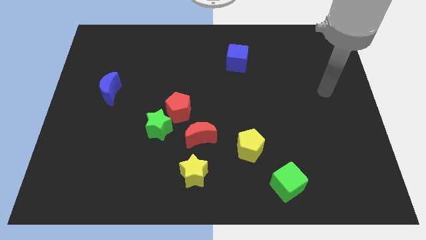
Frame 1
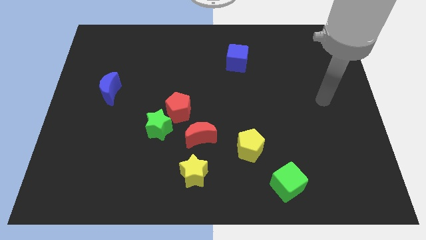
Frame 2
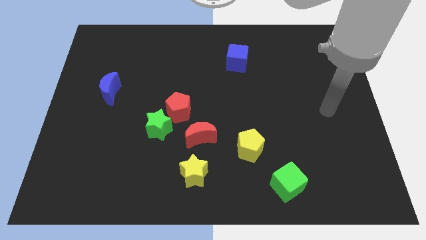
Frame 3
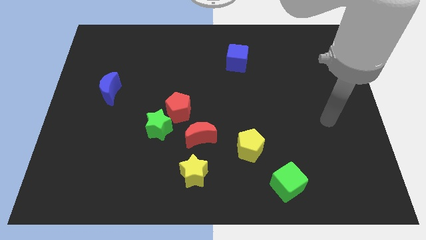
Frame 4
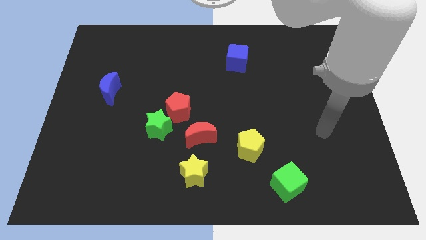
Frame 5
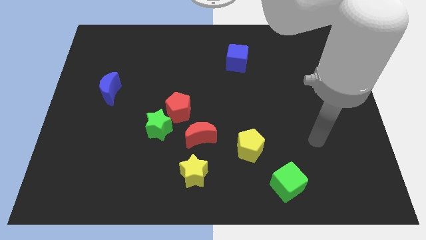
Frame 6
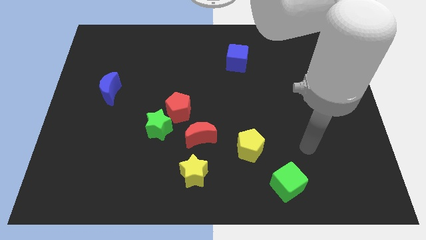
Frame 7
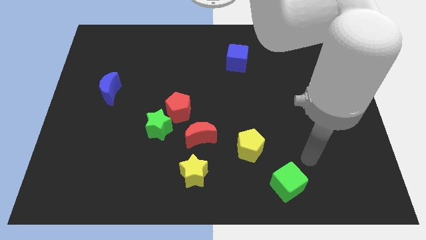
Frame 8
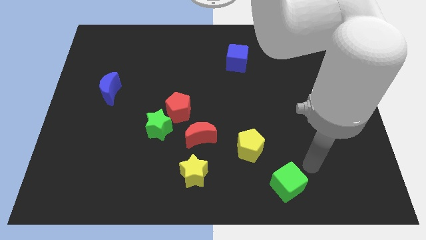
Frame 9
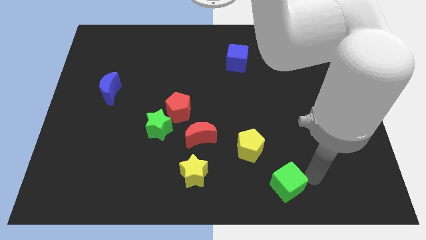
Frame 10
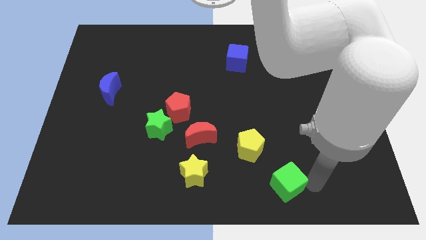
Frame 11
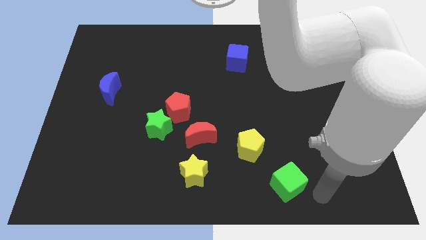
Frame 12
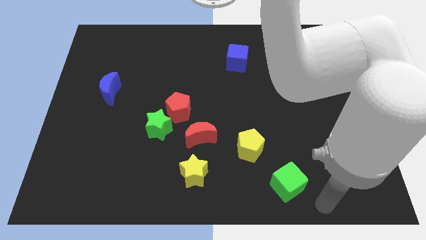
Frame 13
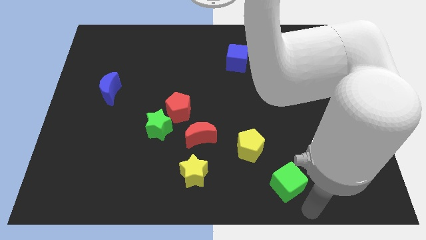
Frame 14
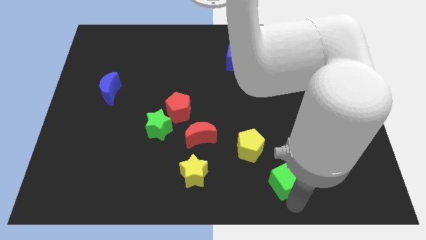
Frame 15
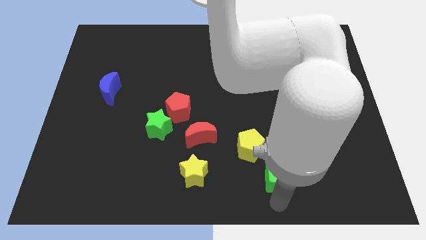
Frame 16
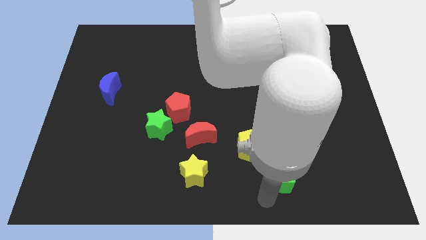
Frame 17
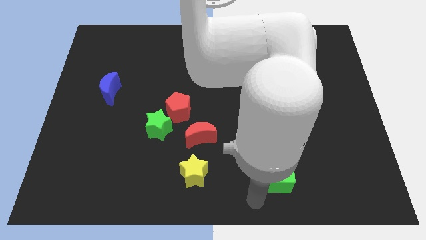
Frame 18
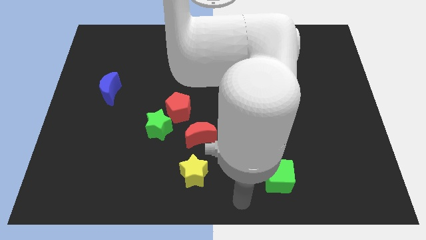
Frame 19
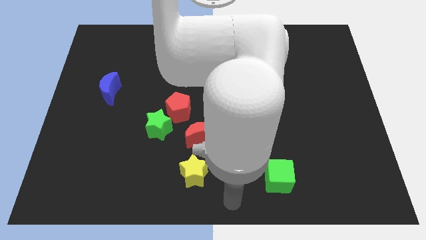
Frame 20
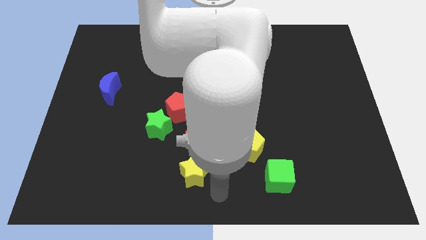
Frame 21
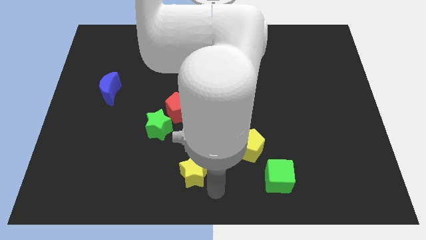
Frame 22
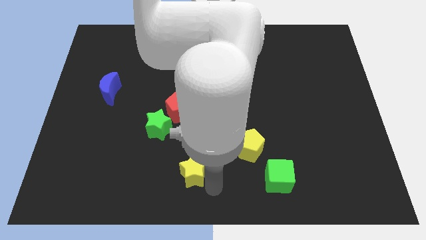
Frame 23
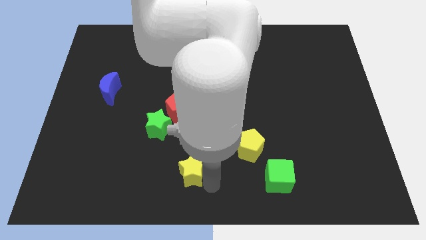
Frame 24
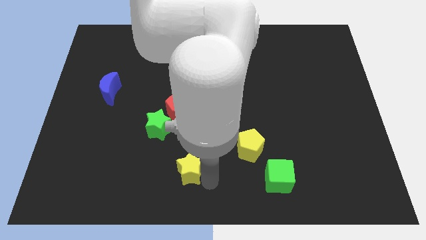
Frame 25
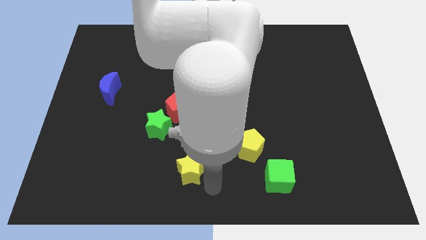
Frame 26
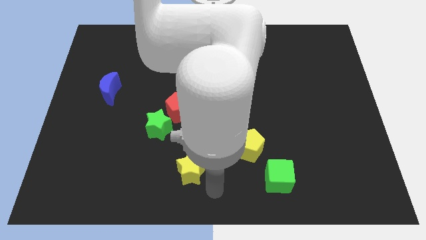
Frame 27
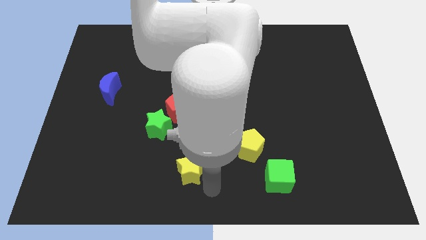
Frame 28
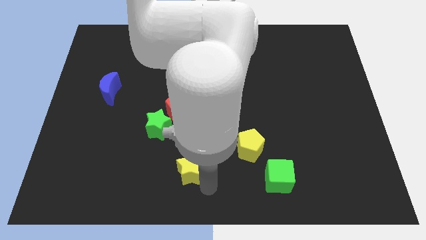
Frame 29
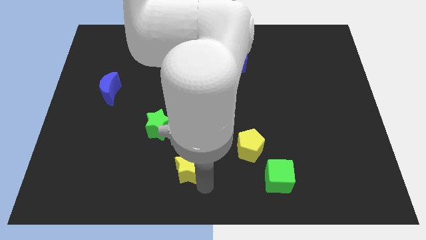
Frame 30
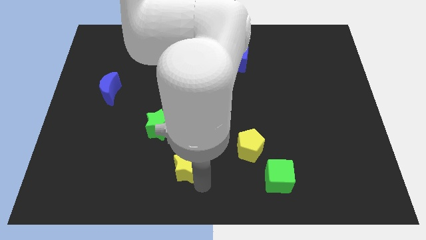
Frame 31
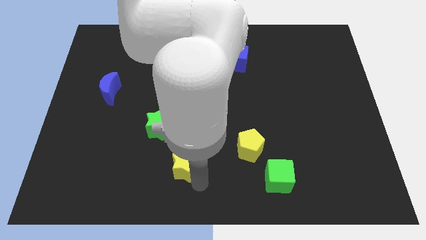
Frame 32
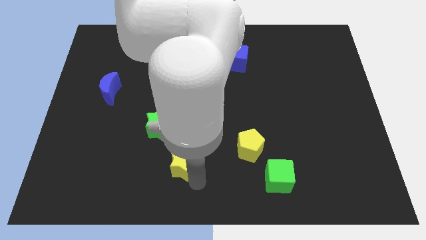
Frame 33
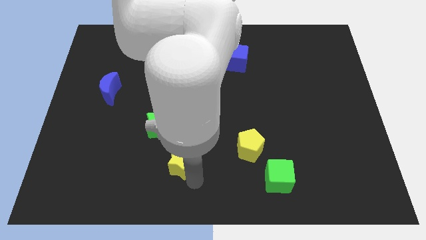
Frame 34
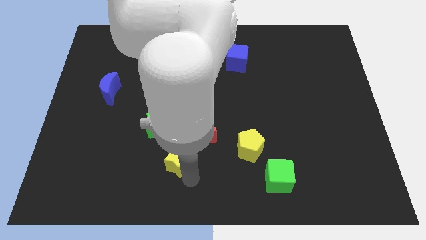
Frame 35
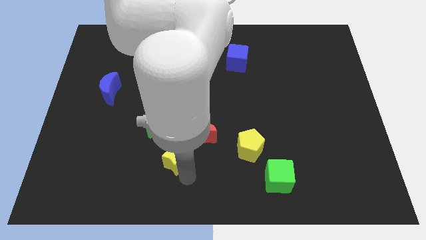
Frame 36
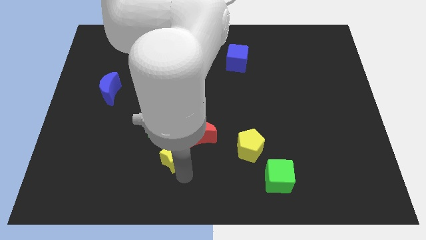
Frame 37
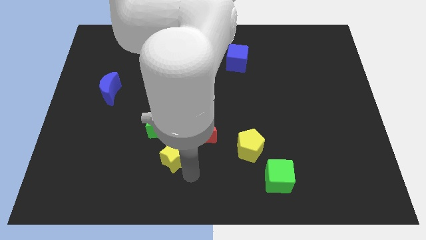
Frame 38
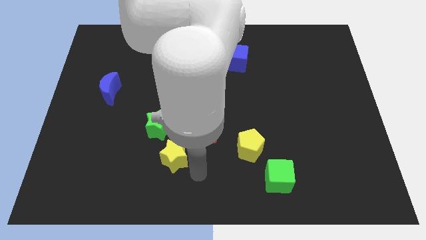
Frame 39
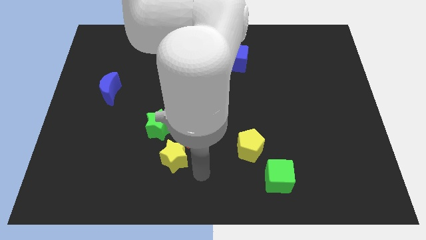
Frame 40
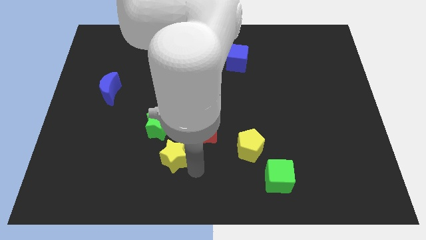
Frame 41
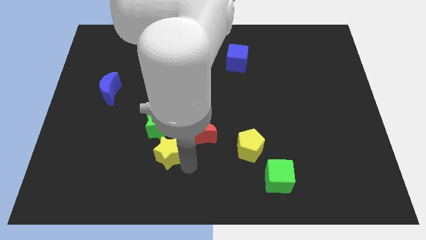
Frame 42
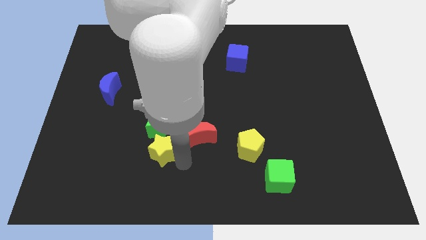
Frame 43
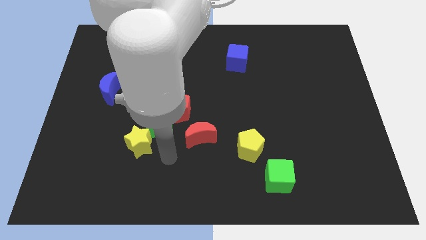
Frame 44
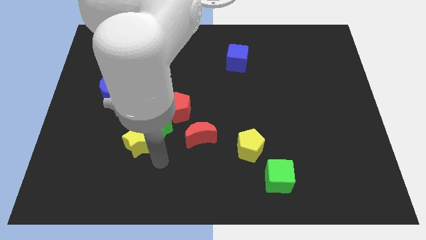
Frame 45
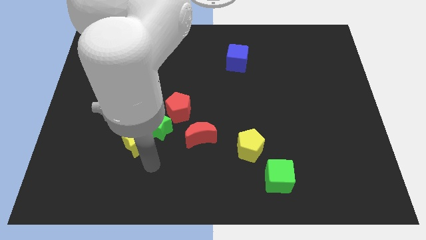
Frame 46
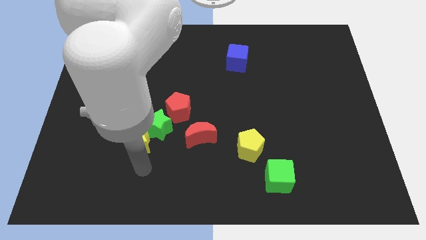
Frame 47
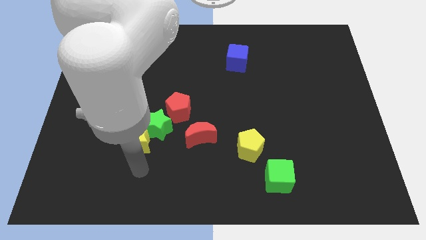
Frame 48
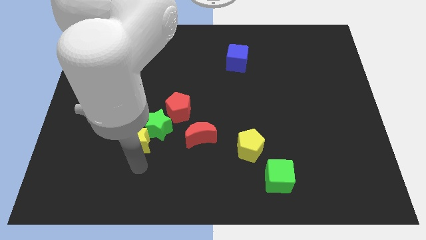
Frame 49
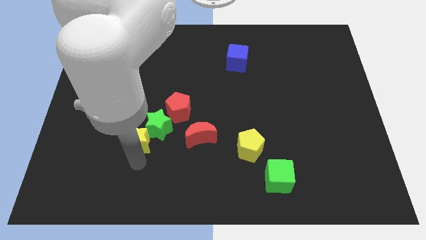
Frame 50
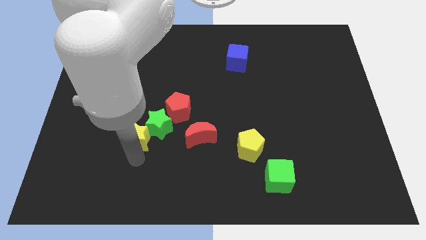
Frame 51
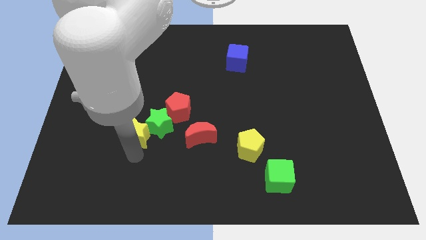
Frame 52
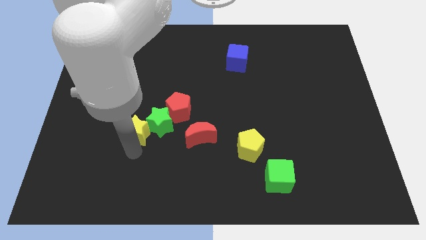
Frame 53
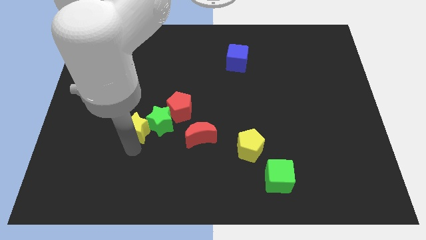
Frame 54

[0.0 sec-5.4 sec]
put the yellow star to the top left side of the green star

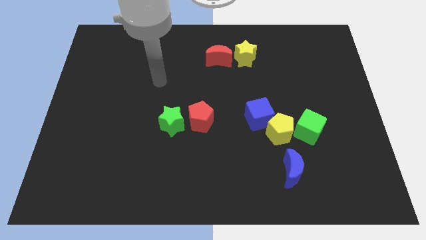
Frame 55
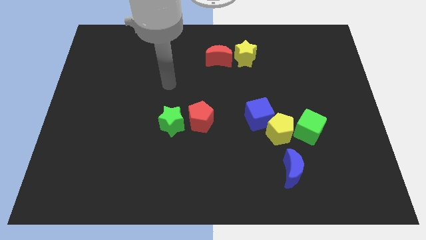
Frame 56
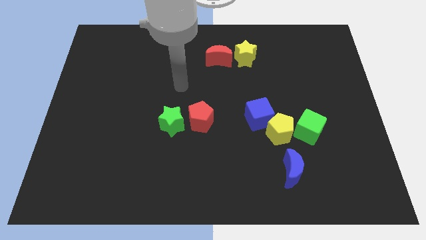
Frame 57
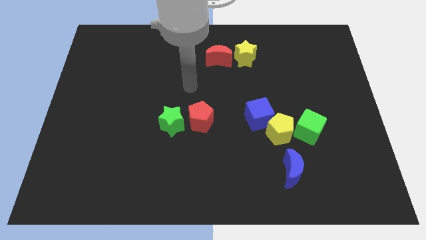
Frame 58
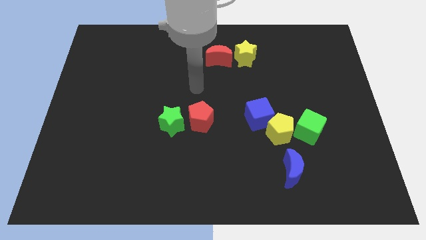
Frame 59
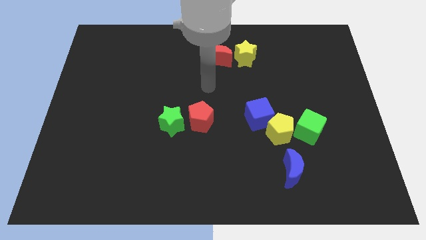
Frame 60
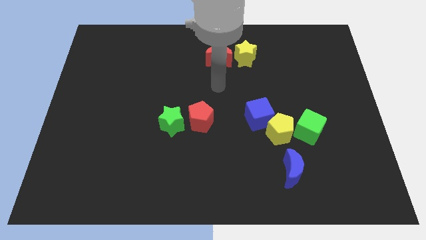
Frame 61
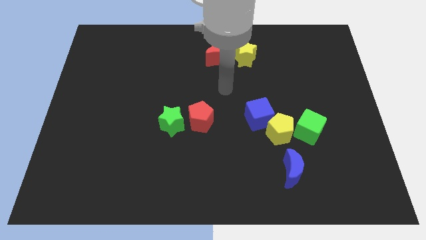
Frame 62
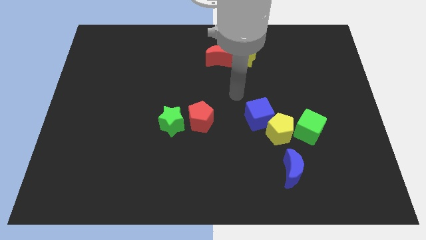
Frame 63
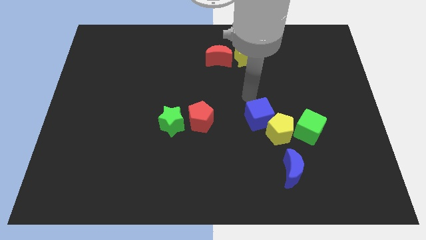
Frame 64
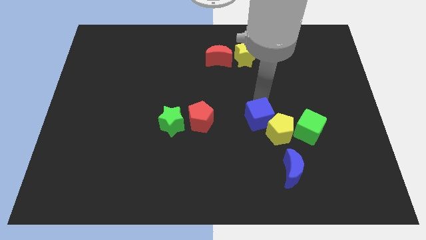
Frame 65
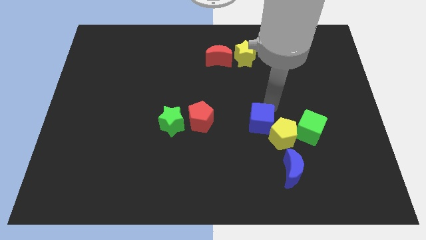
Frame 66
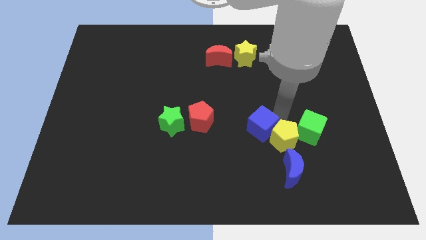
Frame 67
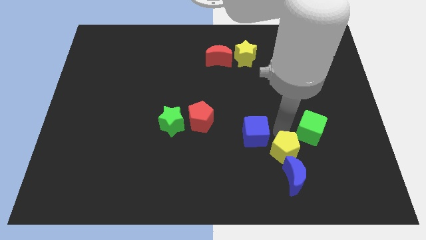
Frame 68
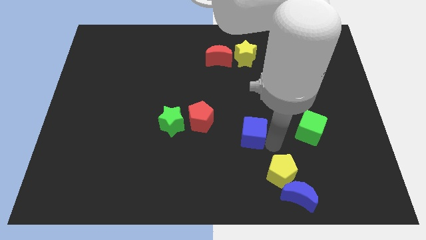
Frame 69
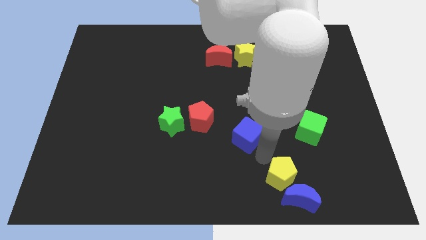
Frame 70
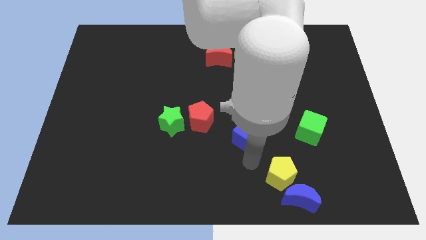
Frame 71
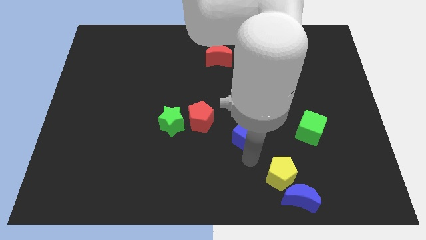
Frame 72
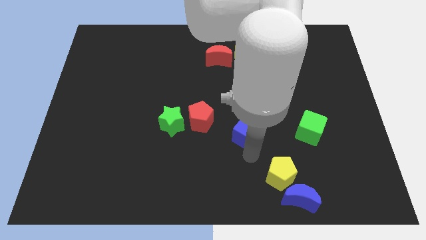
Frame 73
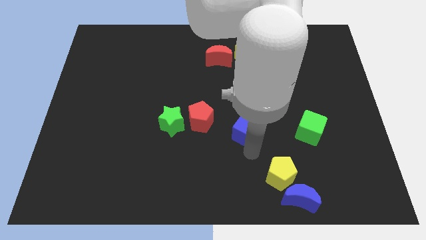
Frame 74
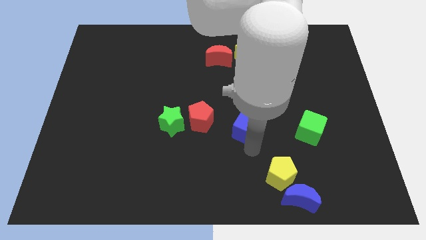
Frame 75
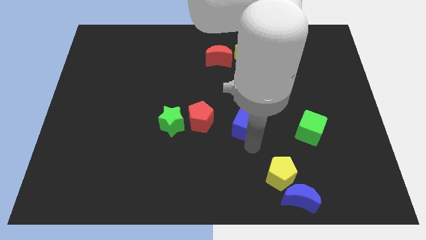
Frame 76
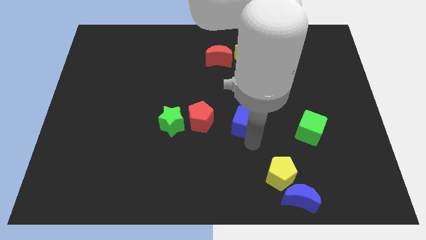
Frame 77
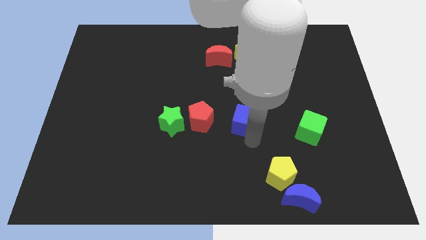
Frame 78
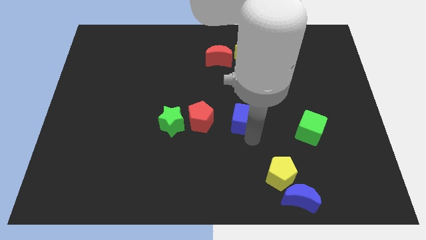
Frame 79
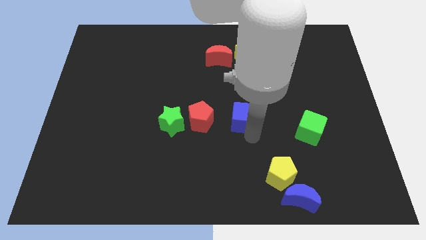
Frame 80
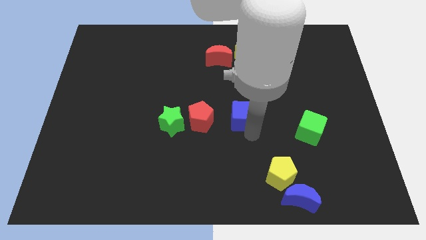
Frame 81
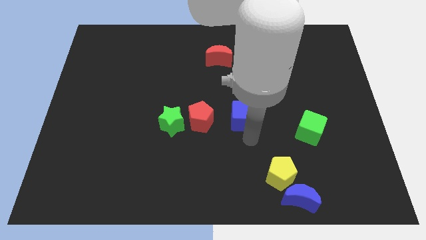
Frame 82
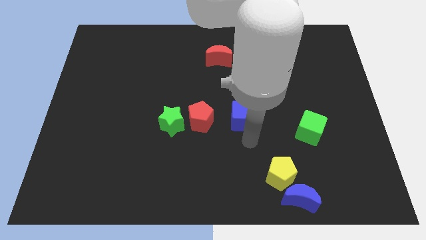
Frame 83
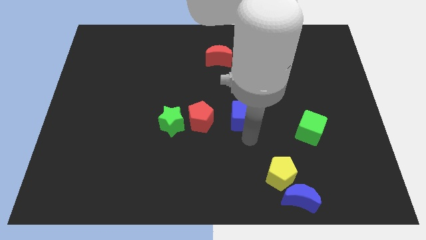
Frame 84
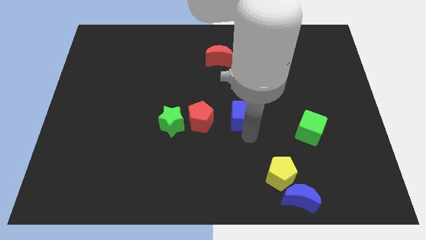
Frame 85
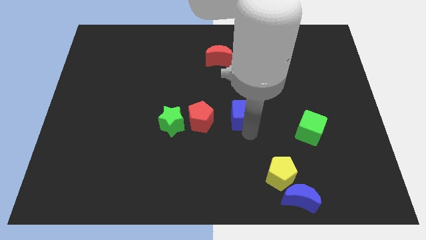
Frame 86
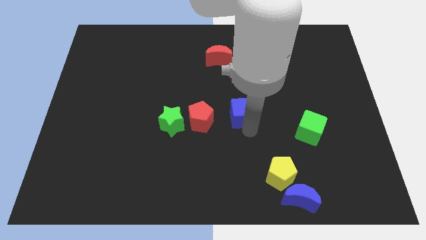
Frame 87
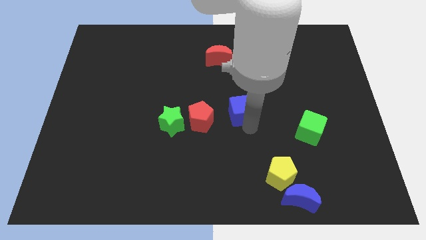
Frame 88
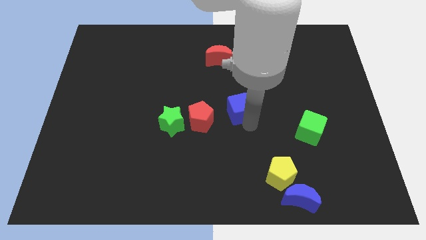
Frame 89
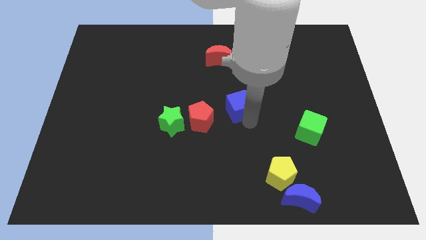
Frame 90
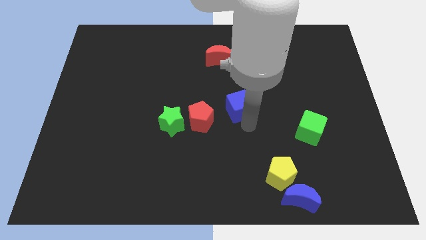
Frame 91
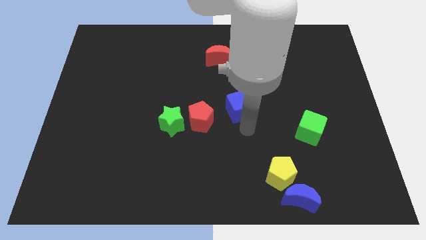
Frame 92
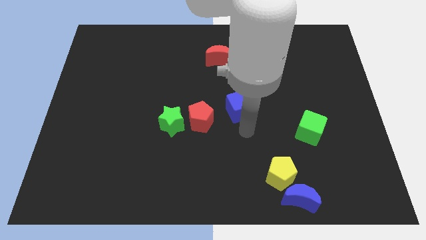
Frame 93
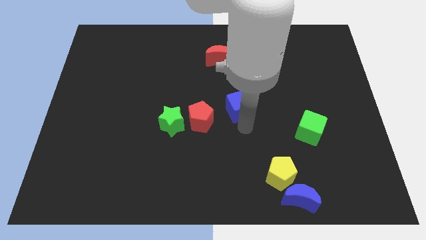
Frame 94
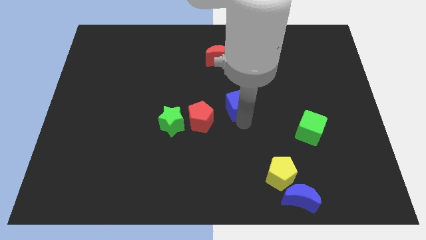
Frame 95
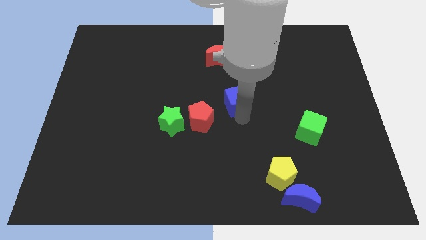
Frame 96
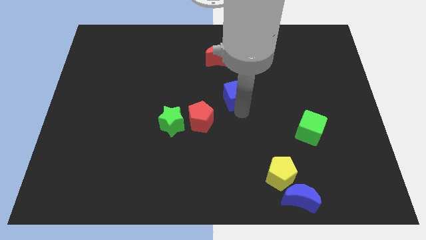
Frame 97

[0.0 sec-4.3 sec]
move the blue cube below the red moon
